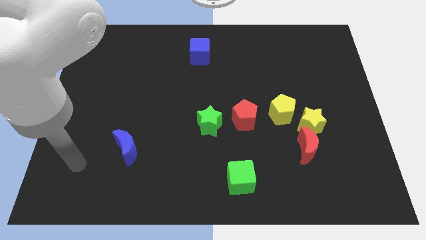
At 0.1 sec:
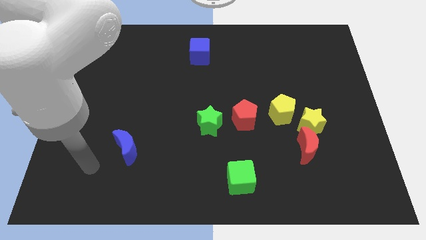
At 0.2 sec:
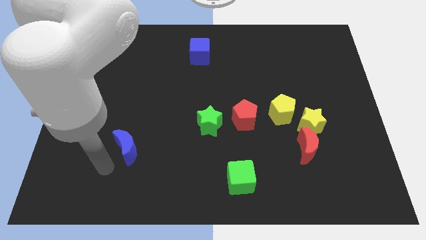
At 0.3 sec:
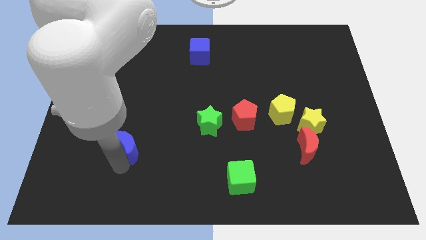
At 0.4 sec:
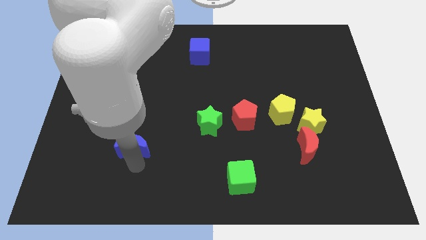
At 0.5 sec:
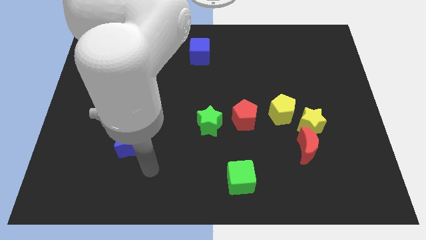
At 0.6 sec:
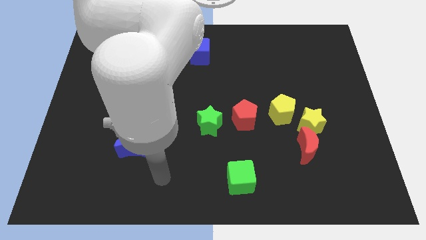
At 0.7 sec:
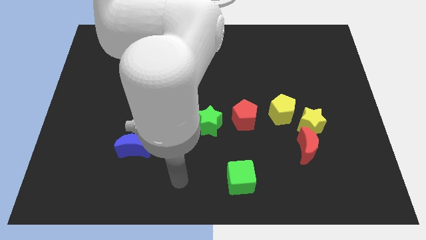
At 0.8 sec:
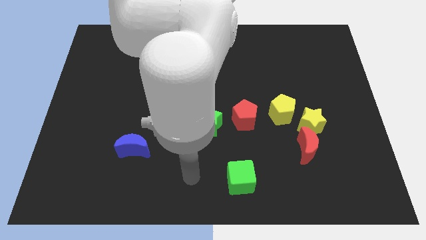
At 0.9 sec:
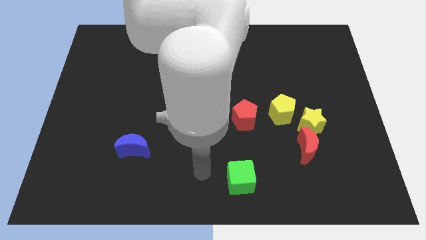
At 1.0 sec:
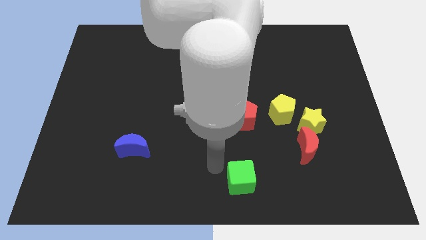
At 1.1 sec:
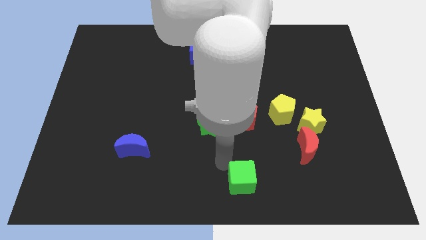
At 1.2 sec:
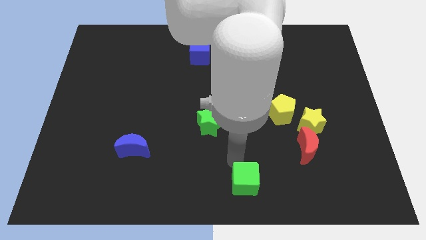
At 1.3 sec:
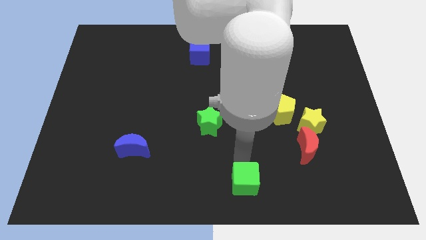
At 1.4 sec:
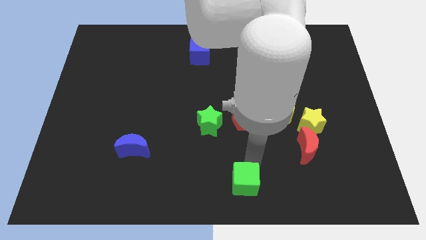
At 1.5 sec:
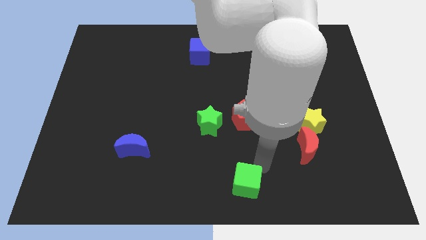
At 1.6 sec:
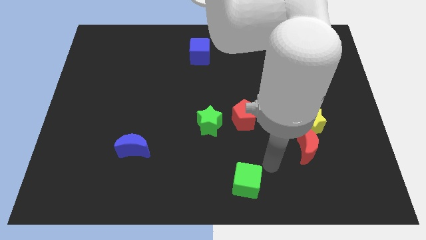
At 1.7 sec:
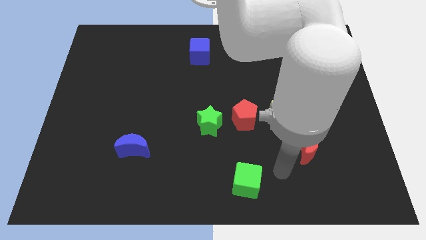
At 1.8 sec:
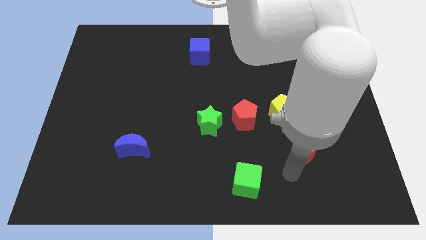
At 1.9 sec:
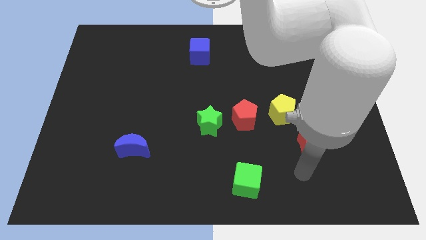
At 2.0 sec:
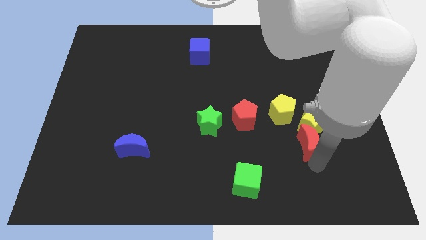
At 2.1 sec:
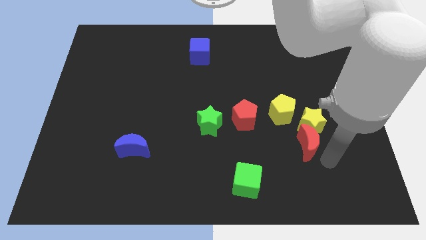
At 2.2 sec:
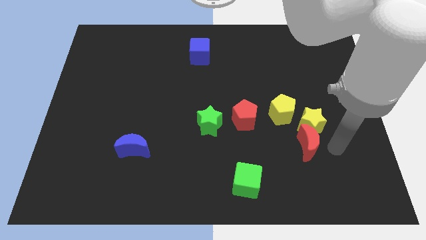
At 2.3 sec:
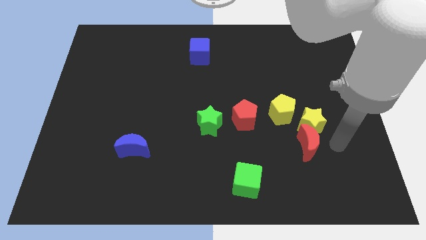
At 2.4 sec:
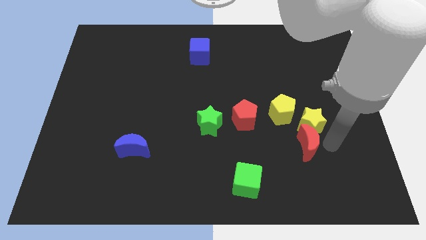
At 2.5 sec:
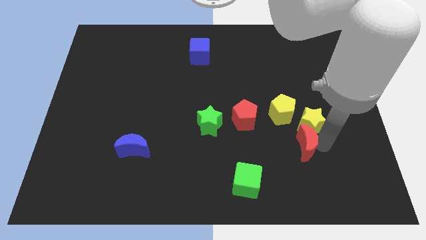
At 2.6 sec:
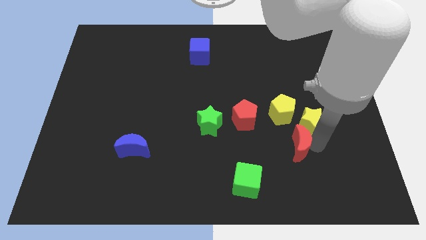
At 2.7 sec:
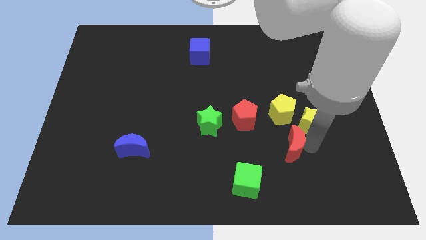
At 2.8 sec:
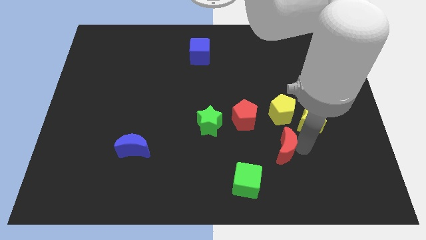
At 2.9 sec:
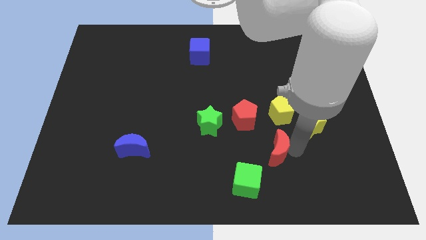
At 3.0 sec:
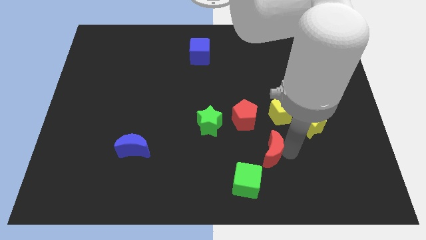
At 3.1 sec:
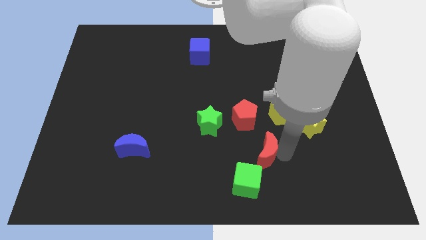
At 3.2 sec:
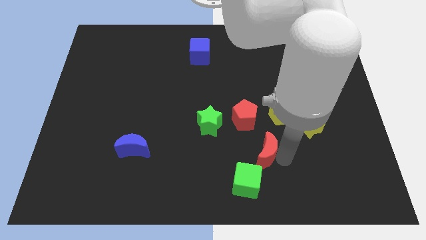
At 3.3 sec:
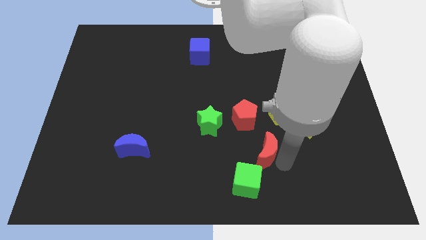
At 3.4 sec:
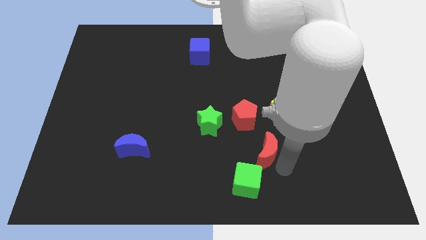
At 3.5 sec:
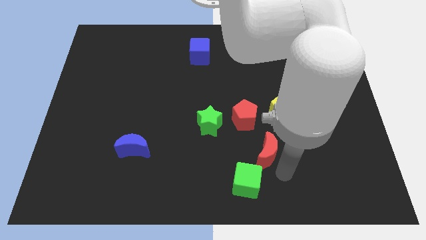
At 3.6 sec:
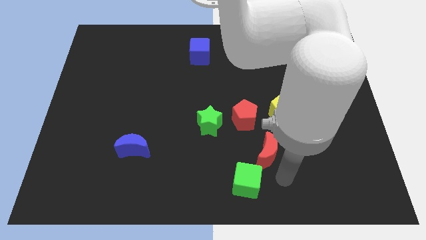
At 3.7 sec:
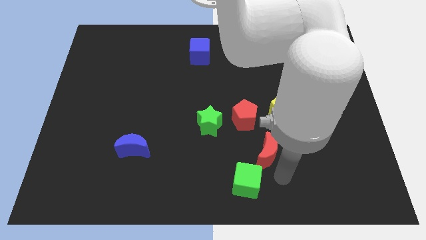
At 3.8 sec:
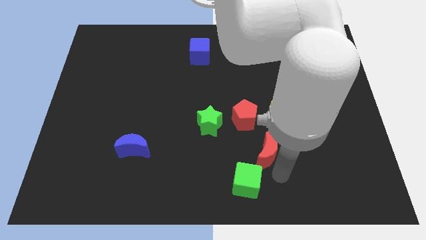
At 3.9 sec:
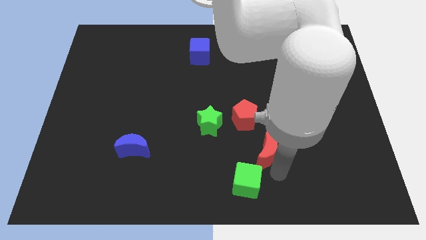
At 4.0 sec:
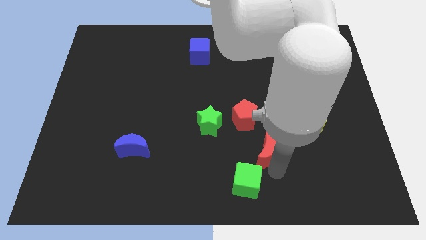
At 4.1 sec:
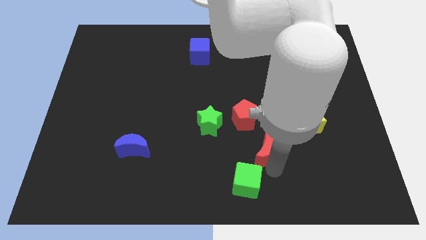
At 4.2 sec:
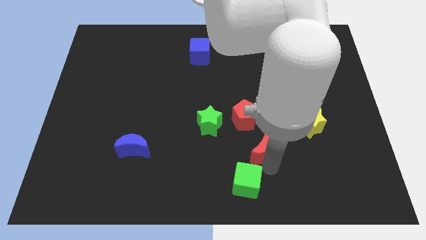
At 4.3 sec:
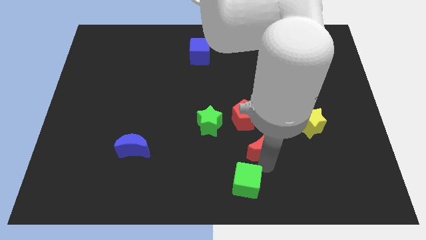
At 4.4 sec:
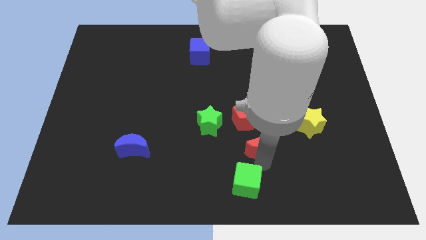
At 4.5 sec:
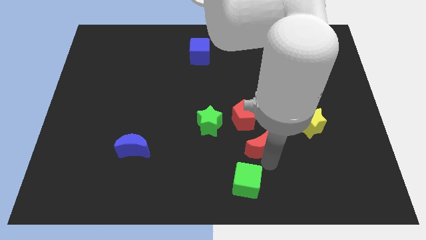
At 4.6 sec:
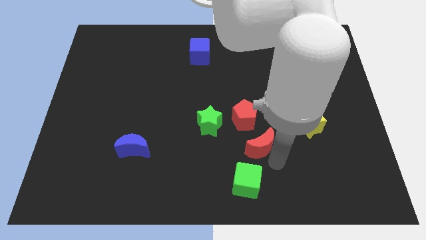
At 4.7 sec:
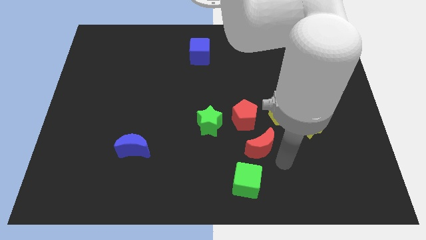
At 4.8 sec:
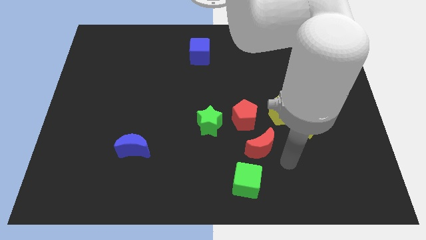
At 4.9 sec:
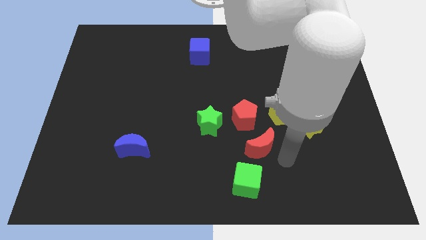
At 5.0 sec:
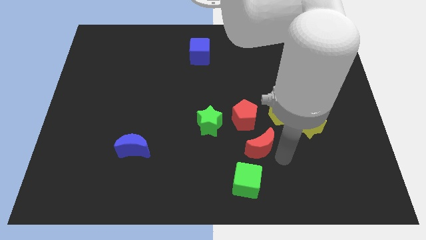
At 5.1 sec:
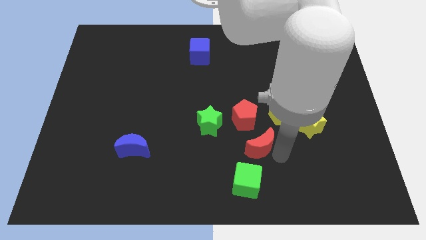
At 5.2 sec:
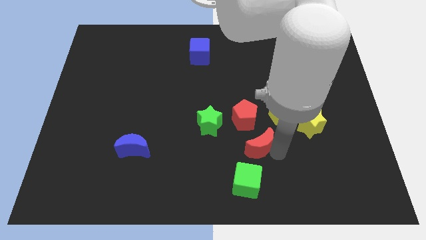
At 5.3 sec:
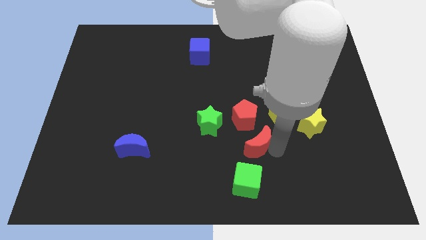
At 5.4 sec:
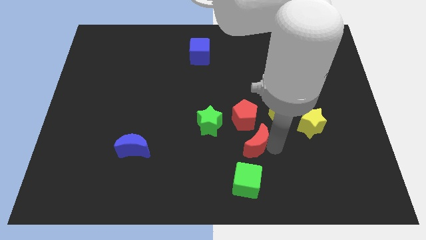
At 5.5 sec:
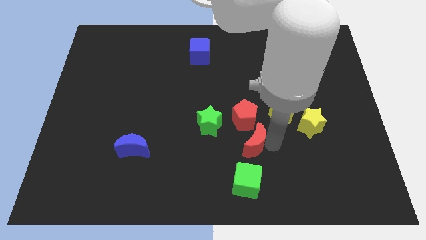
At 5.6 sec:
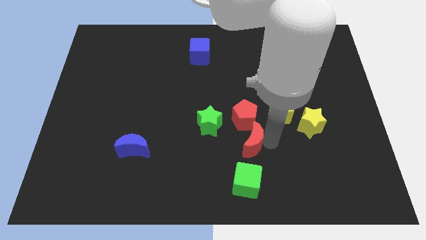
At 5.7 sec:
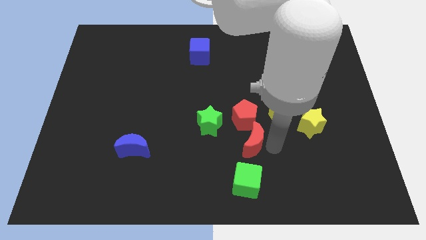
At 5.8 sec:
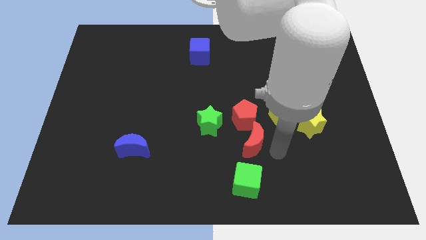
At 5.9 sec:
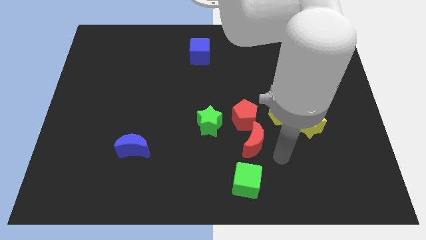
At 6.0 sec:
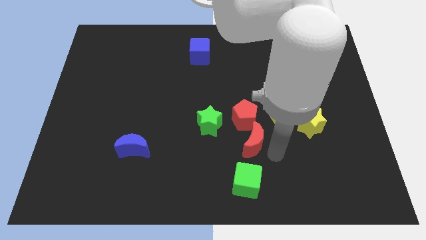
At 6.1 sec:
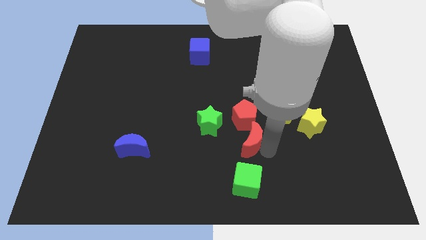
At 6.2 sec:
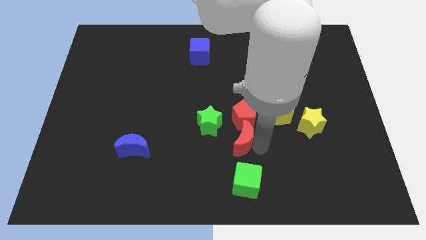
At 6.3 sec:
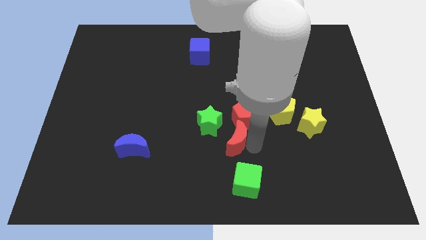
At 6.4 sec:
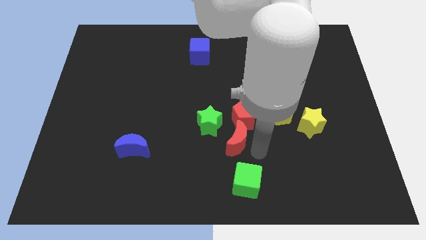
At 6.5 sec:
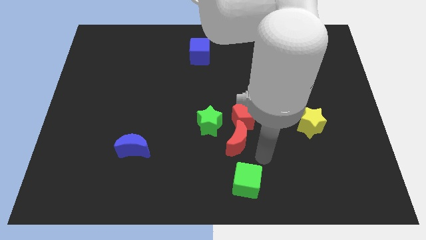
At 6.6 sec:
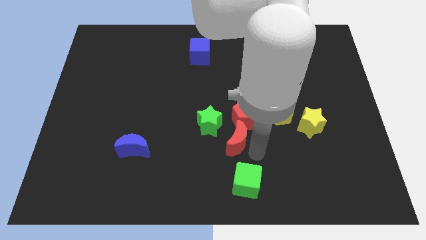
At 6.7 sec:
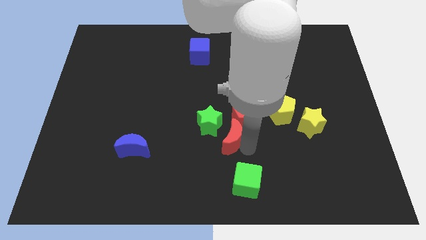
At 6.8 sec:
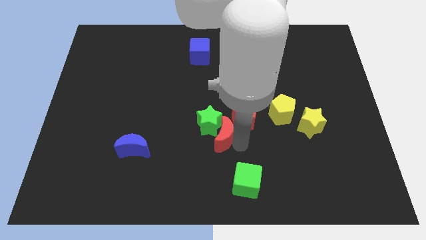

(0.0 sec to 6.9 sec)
push the red moon next to the green star

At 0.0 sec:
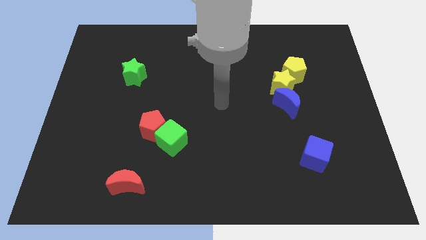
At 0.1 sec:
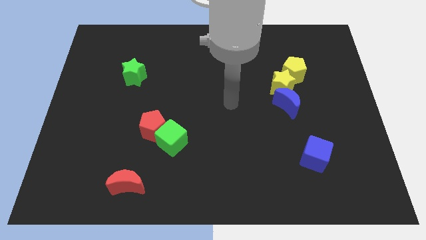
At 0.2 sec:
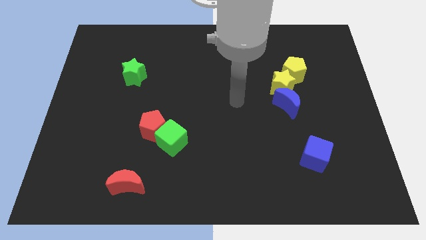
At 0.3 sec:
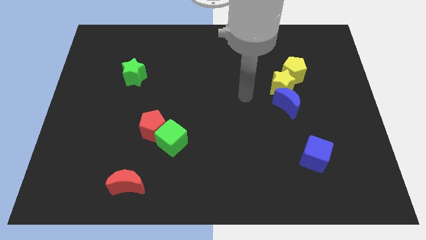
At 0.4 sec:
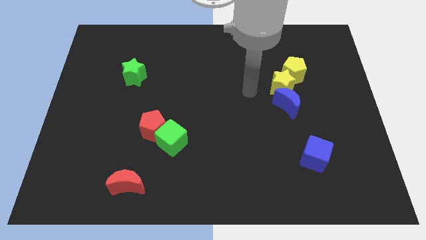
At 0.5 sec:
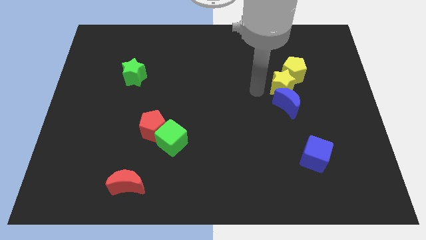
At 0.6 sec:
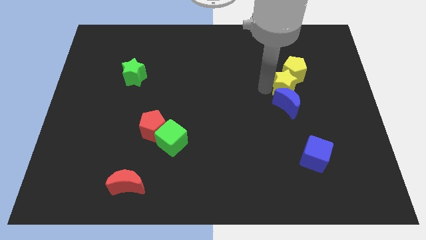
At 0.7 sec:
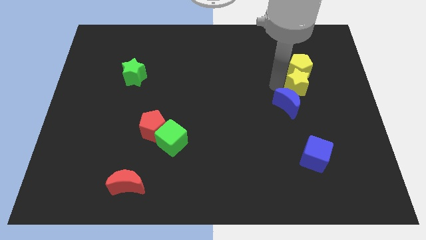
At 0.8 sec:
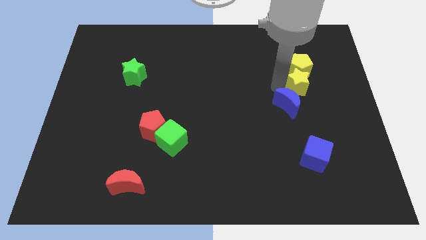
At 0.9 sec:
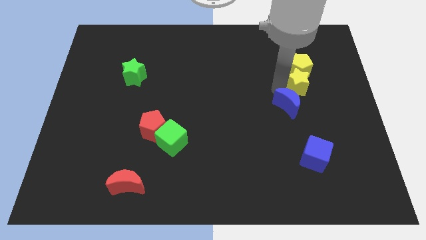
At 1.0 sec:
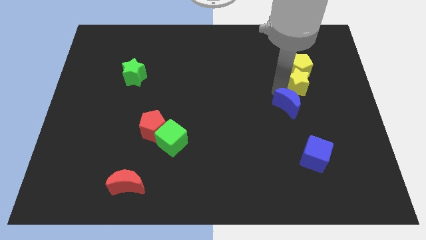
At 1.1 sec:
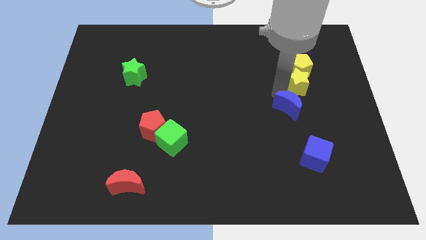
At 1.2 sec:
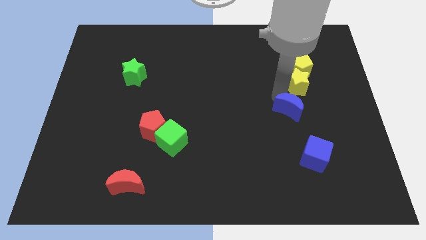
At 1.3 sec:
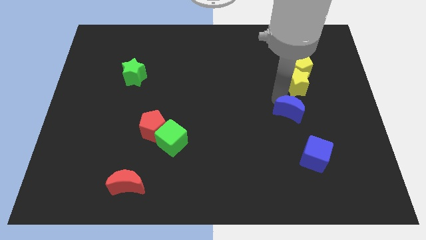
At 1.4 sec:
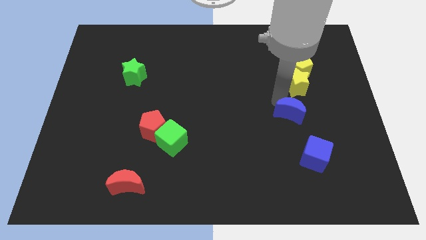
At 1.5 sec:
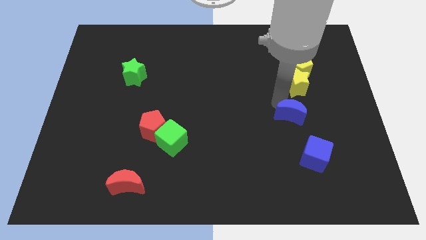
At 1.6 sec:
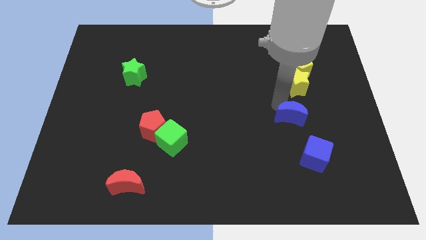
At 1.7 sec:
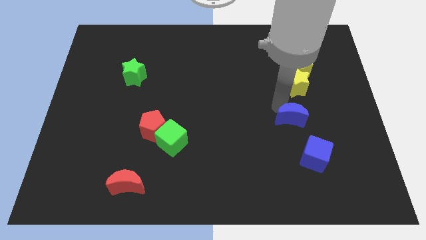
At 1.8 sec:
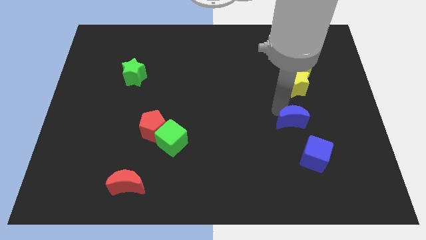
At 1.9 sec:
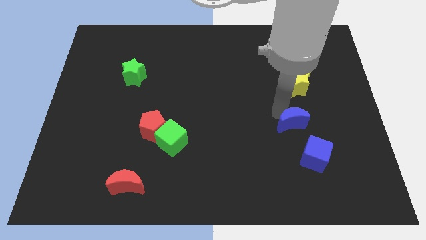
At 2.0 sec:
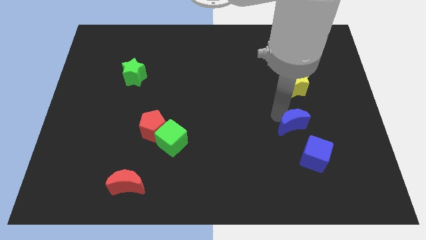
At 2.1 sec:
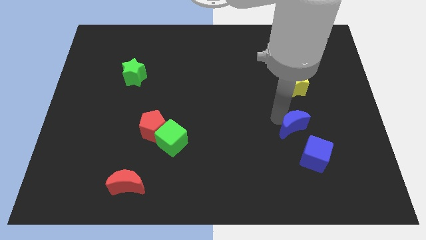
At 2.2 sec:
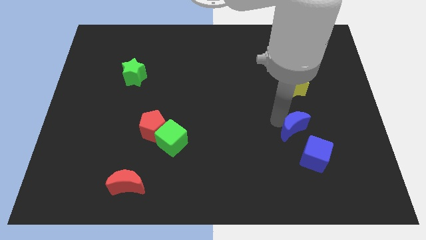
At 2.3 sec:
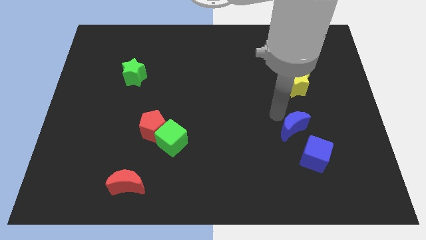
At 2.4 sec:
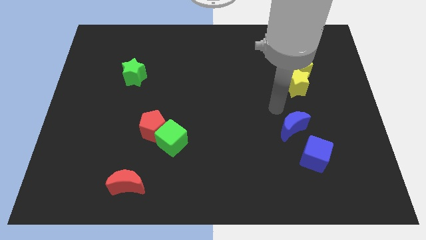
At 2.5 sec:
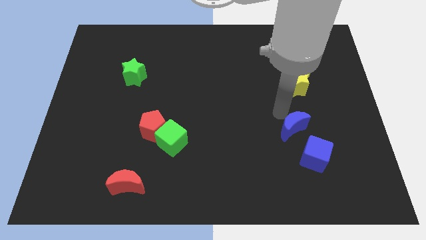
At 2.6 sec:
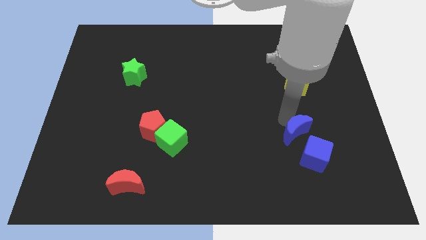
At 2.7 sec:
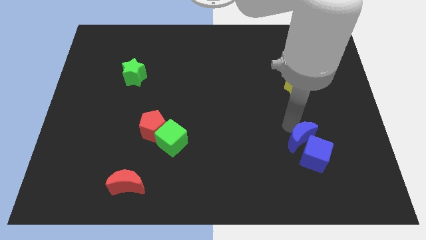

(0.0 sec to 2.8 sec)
push the blue moon towards the blue cube
